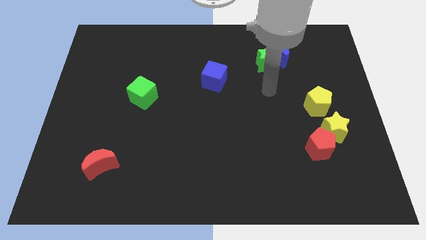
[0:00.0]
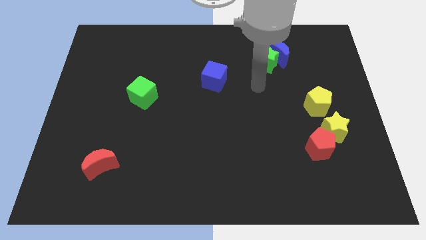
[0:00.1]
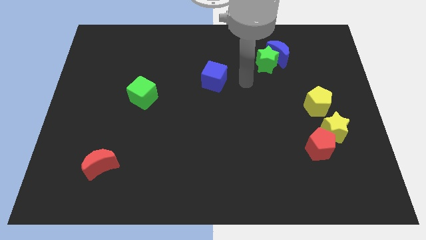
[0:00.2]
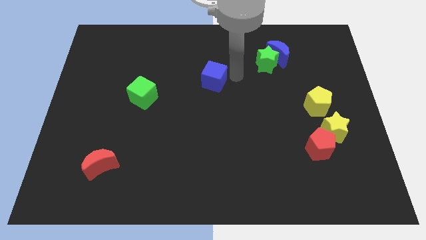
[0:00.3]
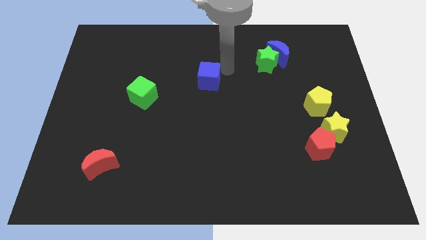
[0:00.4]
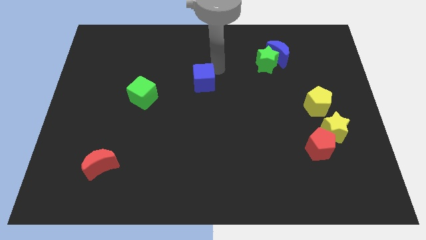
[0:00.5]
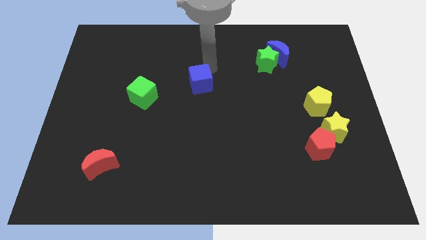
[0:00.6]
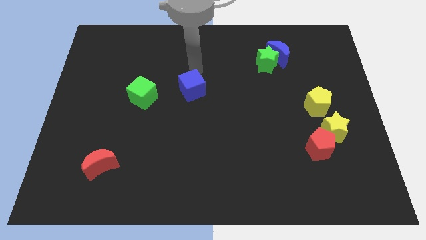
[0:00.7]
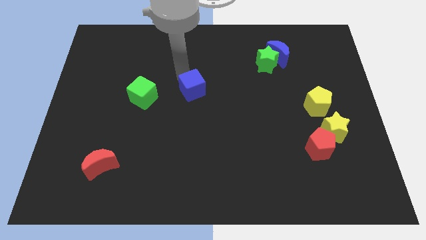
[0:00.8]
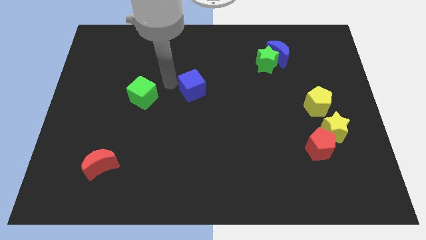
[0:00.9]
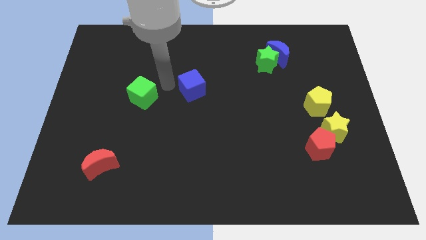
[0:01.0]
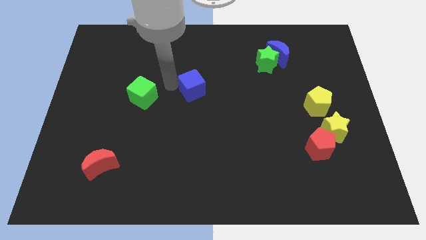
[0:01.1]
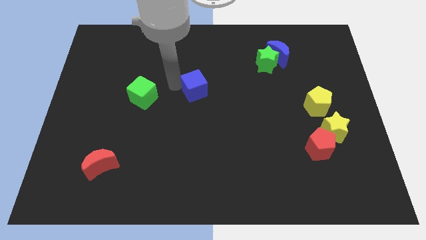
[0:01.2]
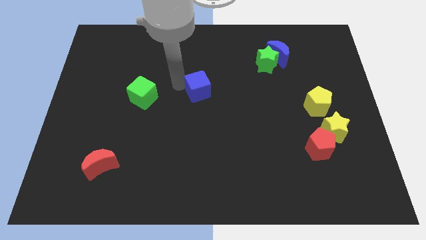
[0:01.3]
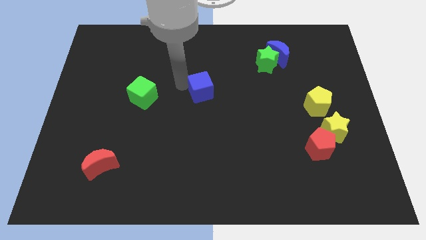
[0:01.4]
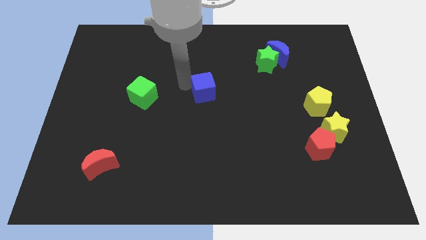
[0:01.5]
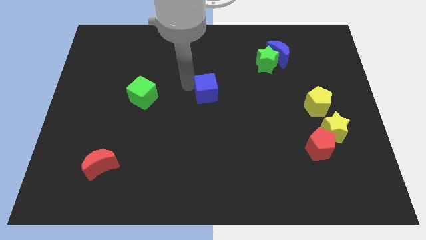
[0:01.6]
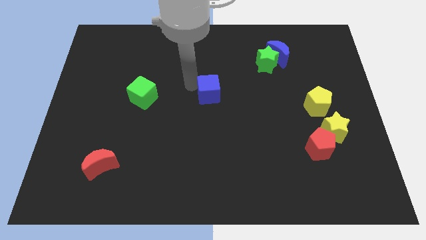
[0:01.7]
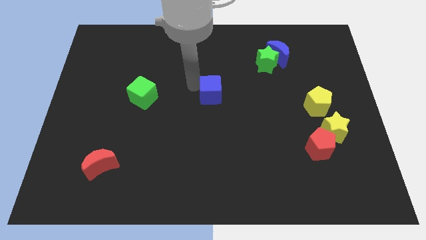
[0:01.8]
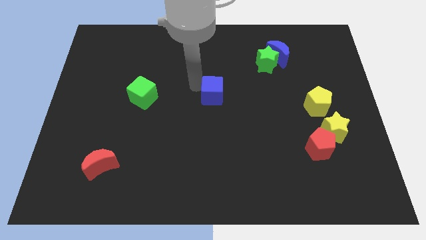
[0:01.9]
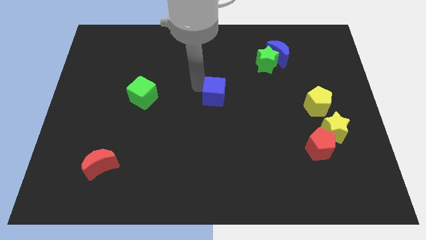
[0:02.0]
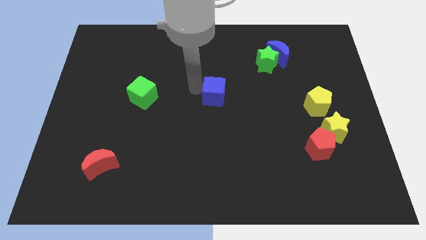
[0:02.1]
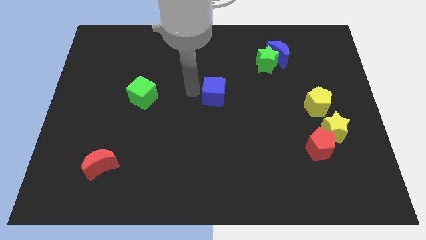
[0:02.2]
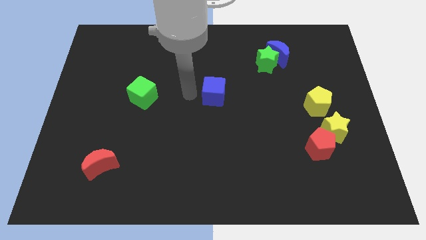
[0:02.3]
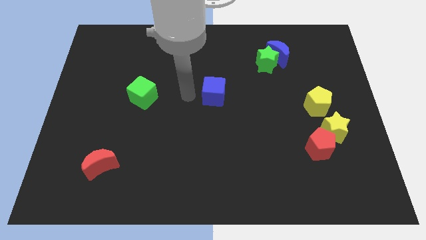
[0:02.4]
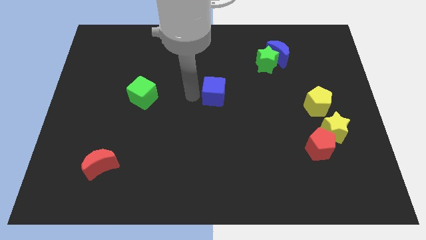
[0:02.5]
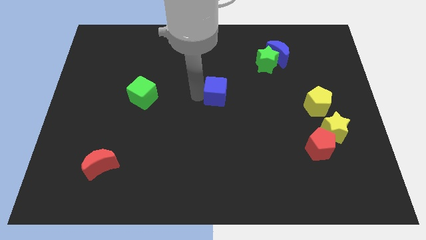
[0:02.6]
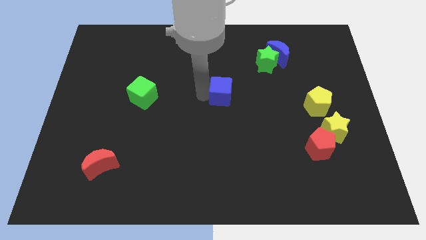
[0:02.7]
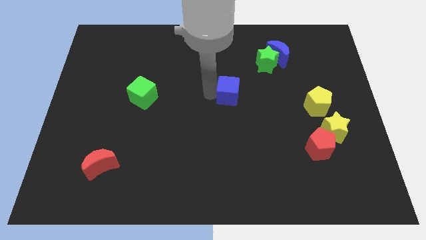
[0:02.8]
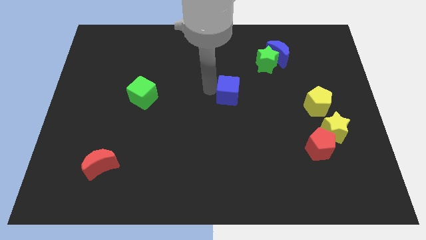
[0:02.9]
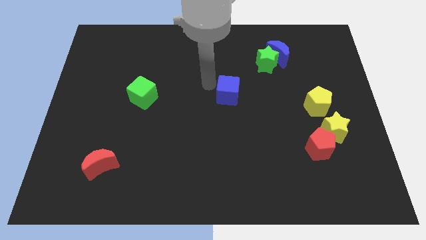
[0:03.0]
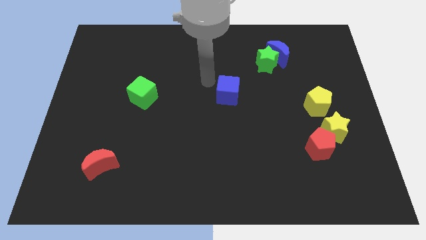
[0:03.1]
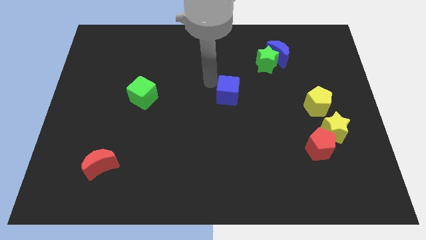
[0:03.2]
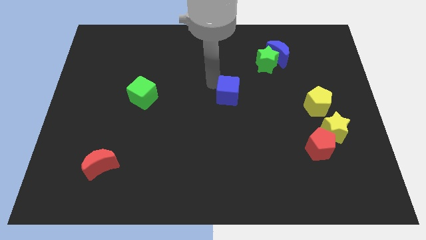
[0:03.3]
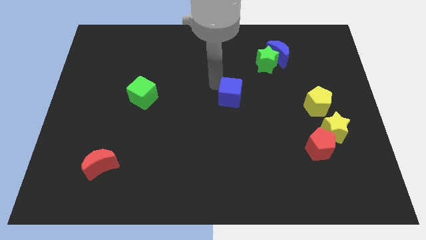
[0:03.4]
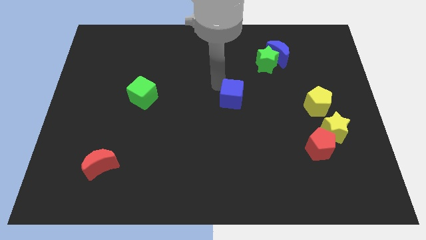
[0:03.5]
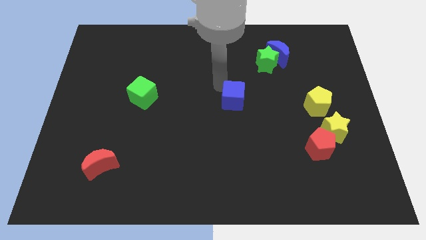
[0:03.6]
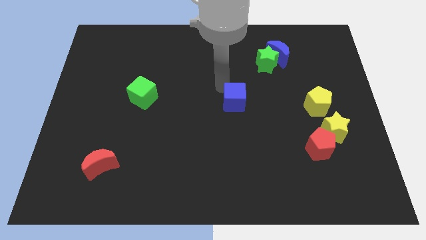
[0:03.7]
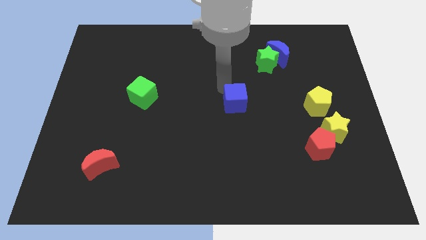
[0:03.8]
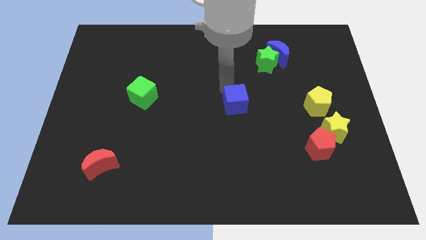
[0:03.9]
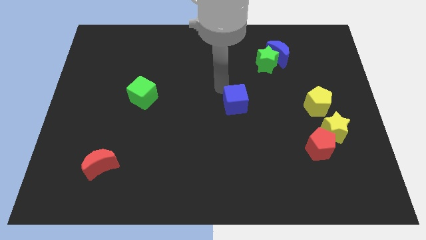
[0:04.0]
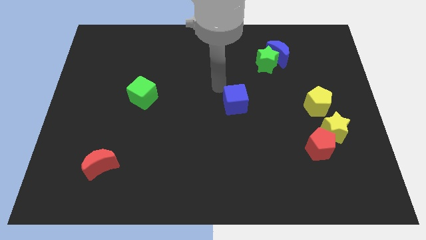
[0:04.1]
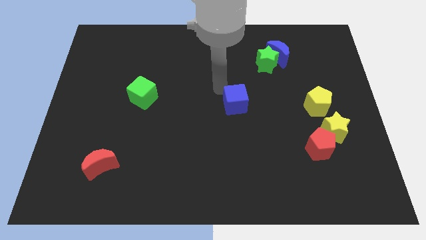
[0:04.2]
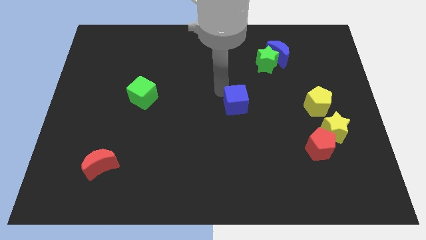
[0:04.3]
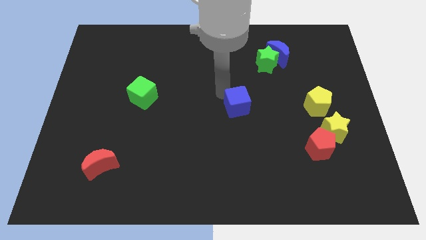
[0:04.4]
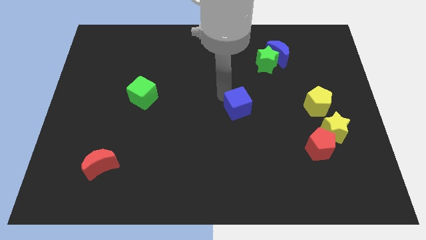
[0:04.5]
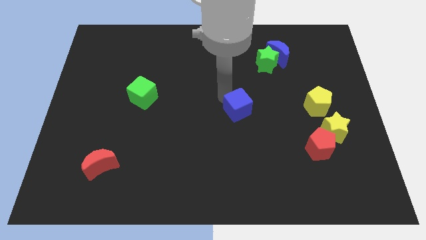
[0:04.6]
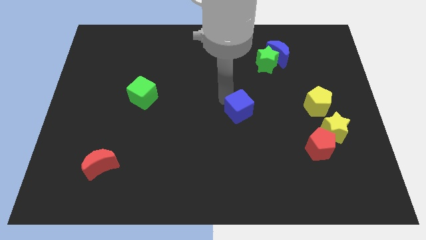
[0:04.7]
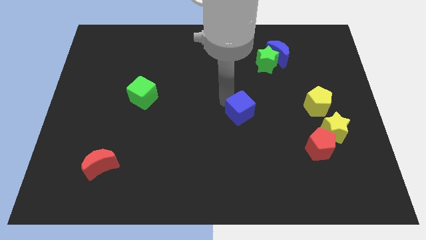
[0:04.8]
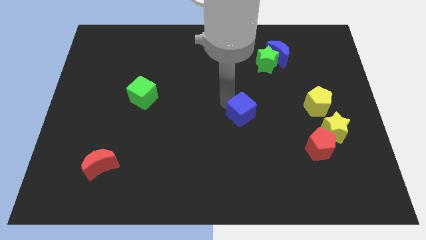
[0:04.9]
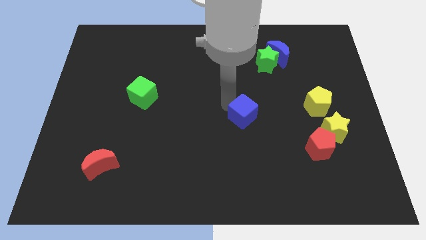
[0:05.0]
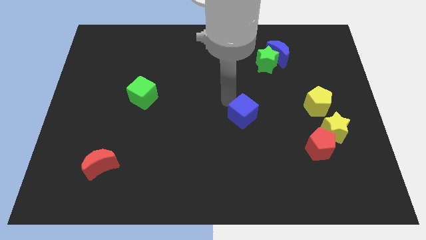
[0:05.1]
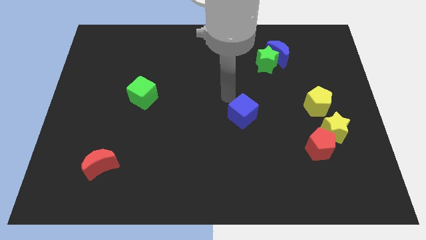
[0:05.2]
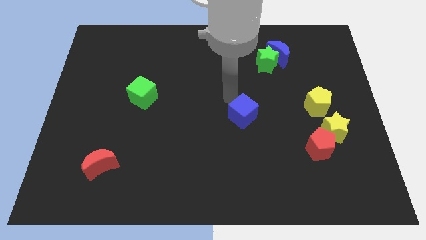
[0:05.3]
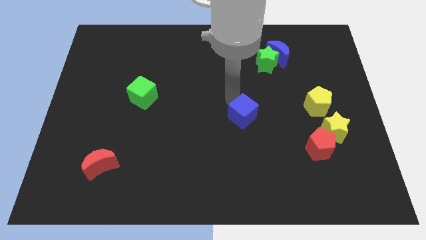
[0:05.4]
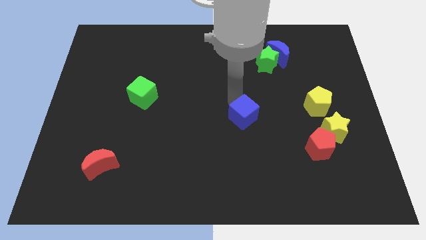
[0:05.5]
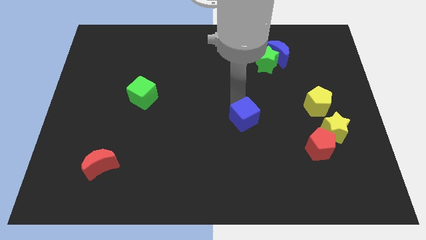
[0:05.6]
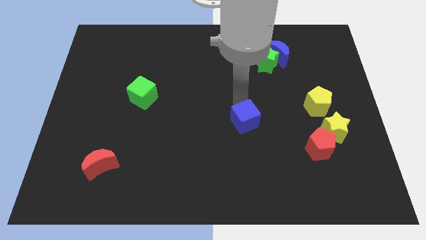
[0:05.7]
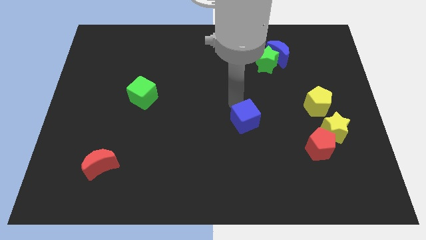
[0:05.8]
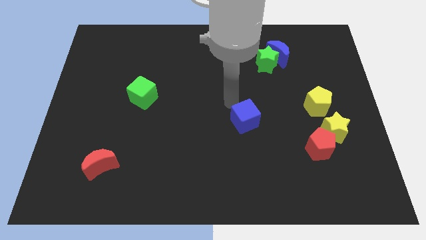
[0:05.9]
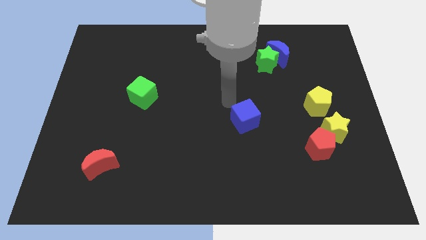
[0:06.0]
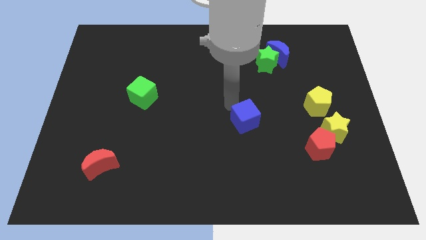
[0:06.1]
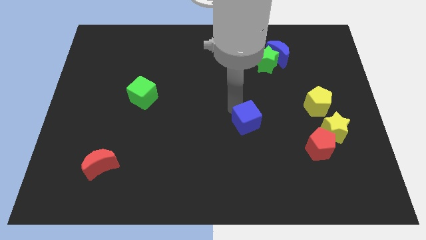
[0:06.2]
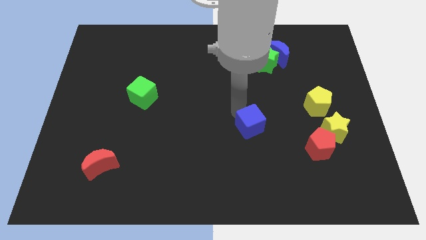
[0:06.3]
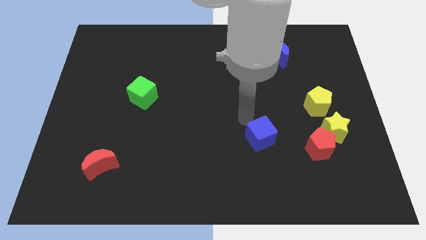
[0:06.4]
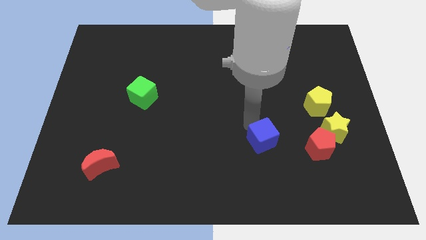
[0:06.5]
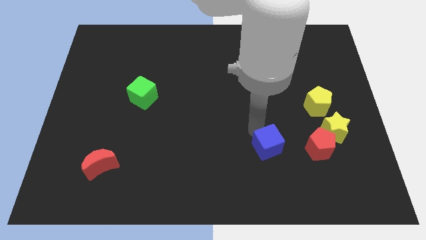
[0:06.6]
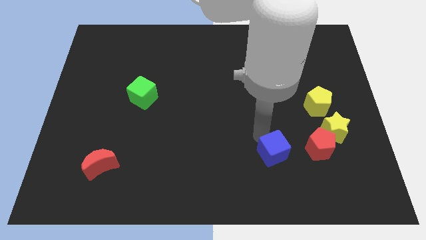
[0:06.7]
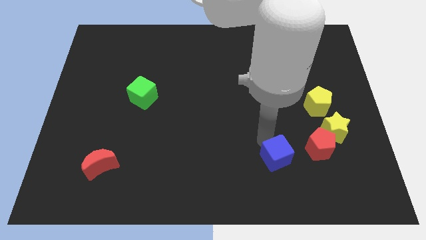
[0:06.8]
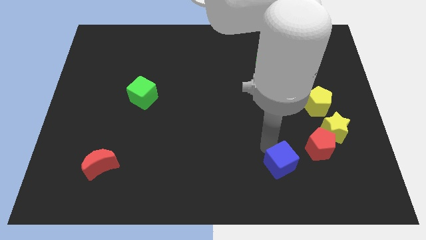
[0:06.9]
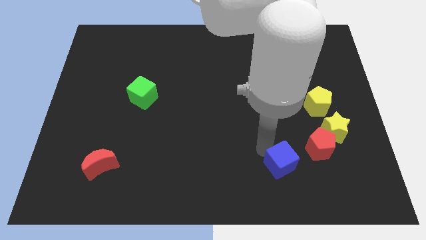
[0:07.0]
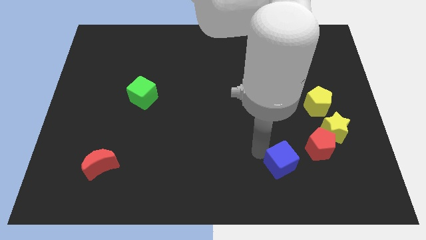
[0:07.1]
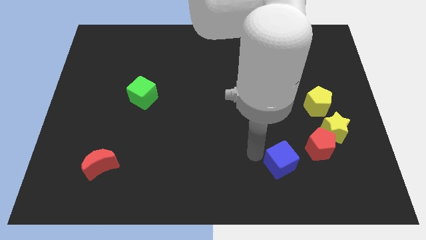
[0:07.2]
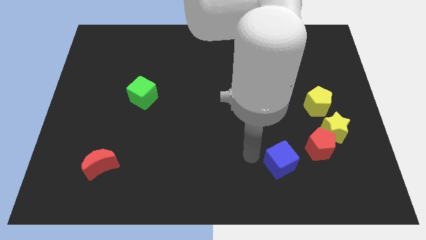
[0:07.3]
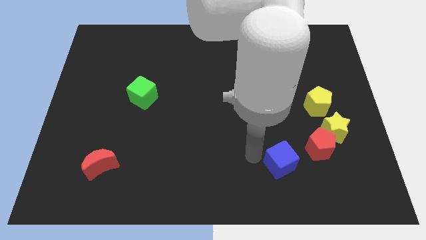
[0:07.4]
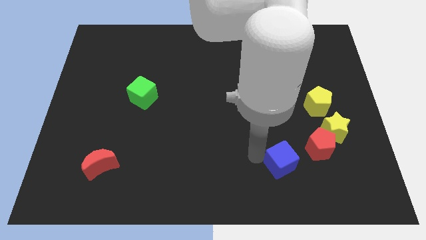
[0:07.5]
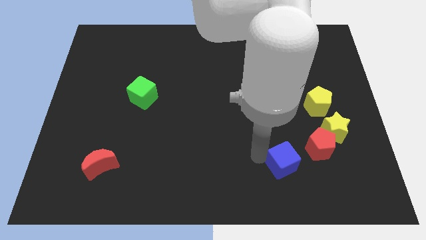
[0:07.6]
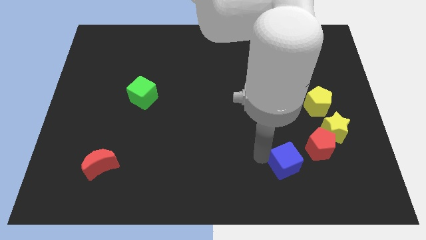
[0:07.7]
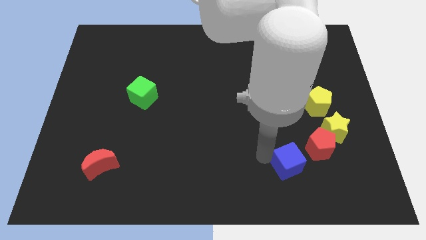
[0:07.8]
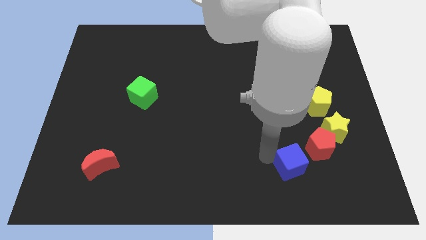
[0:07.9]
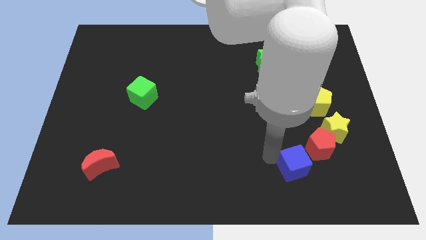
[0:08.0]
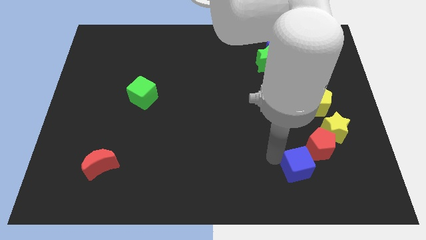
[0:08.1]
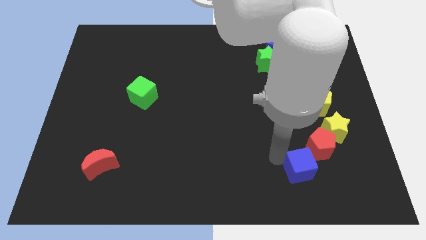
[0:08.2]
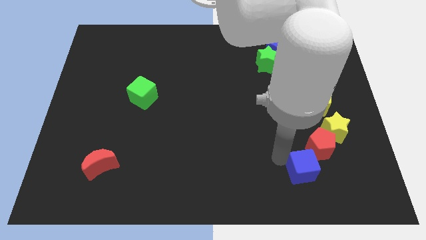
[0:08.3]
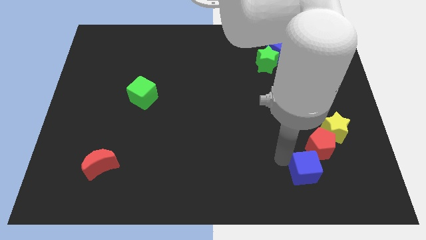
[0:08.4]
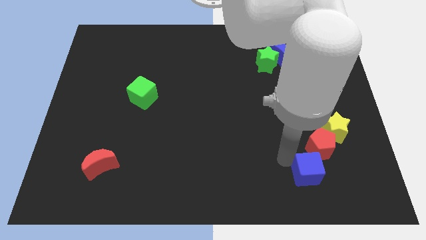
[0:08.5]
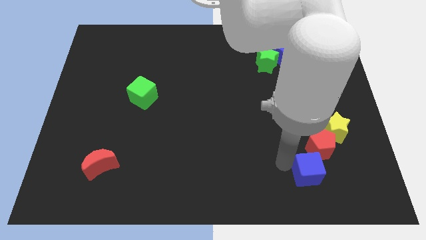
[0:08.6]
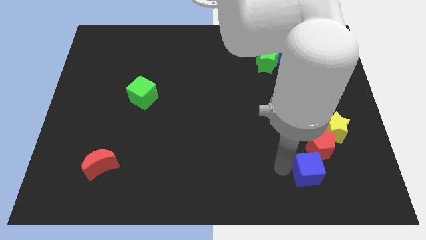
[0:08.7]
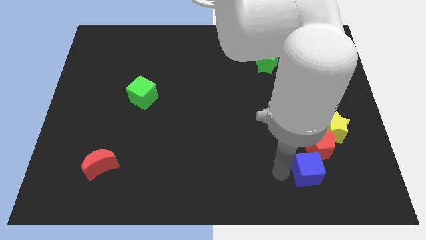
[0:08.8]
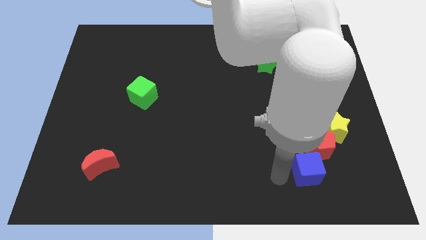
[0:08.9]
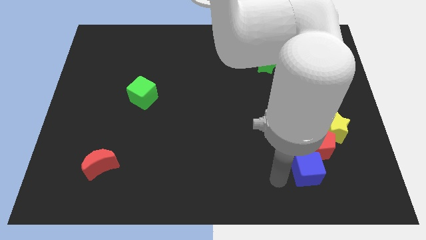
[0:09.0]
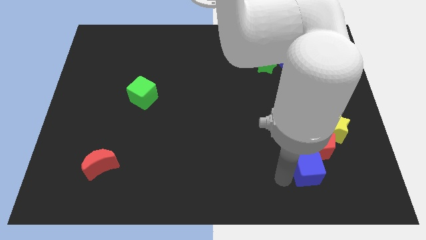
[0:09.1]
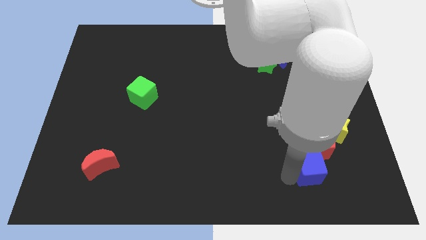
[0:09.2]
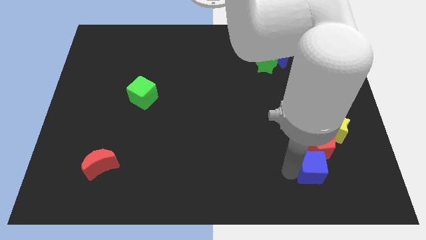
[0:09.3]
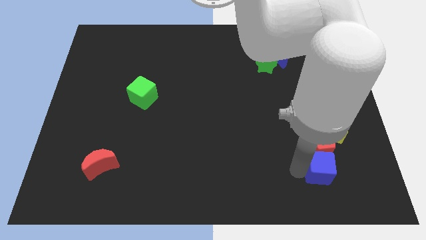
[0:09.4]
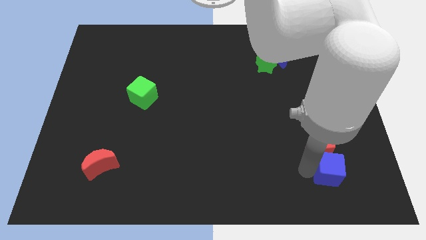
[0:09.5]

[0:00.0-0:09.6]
push the blue cube below the yellow star
